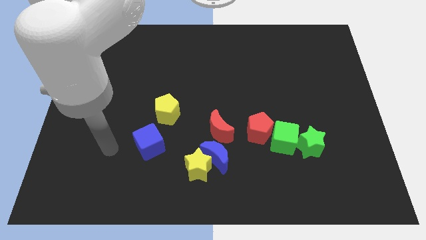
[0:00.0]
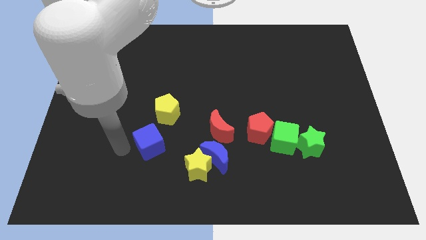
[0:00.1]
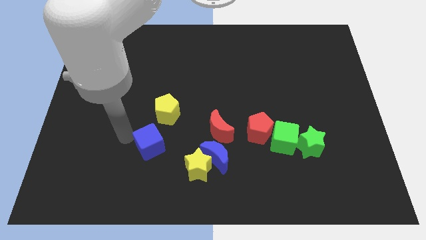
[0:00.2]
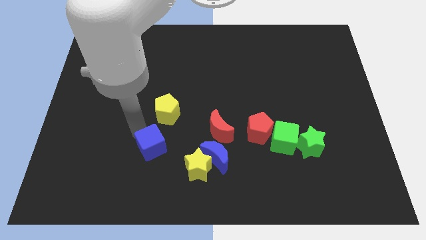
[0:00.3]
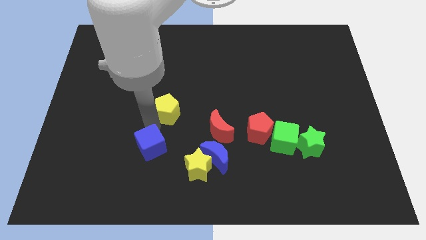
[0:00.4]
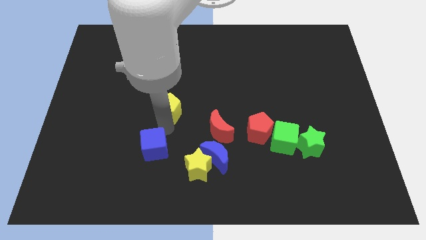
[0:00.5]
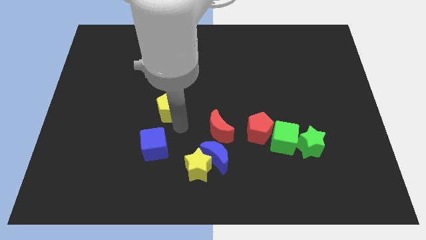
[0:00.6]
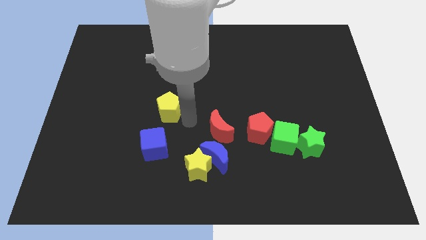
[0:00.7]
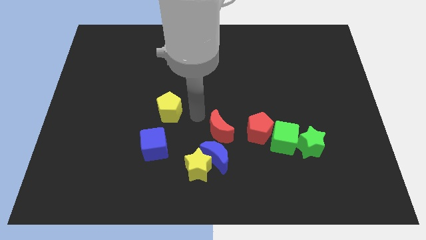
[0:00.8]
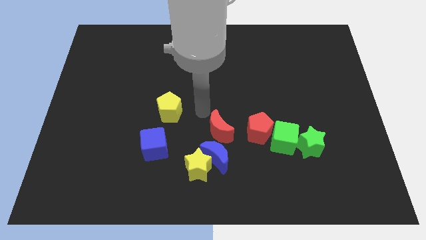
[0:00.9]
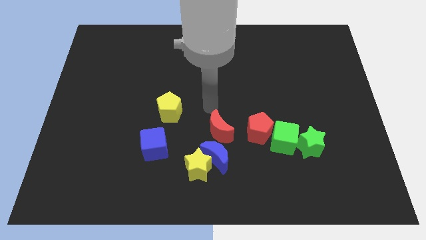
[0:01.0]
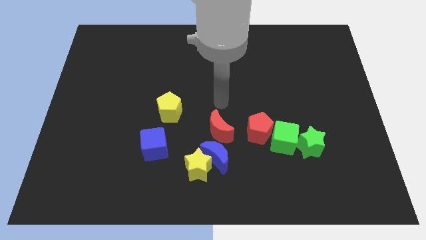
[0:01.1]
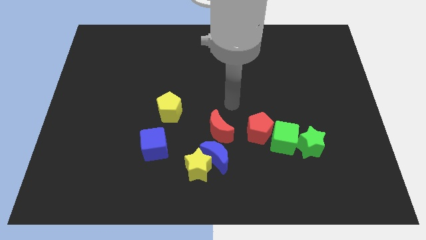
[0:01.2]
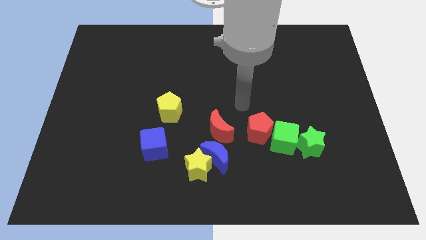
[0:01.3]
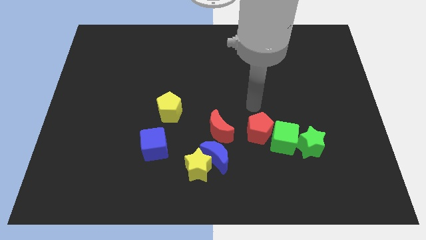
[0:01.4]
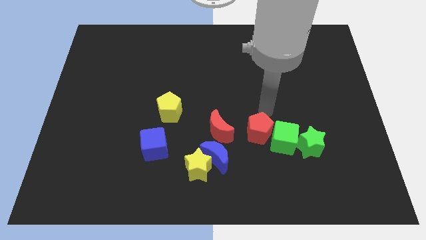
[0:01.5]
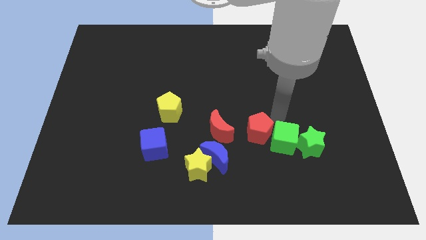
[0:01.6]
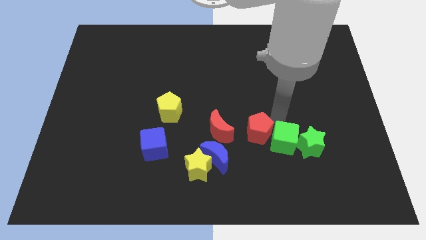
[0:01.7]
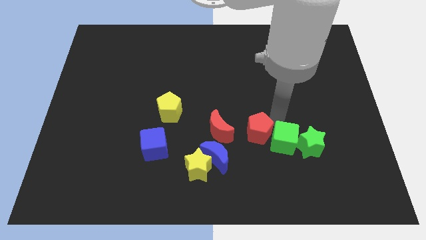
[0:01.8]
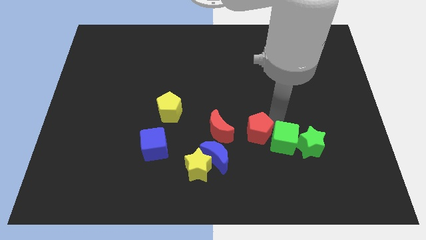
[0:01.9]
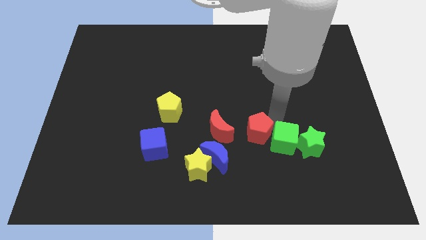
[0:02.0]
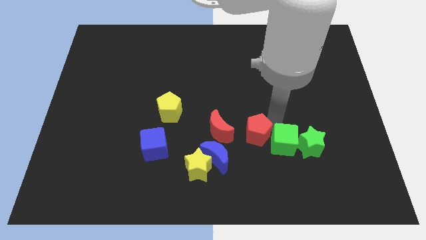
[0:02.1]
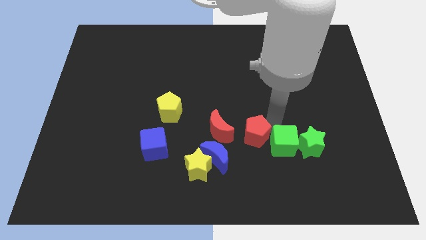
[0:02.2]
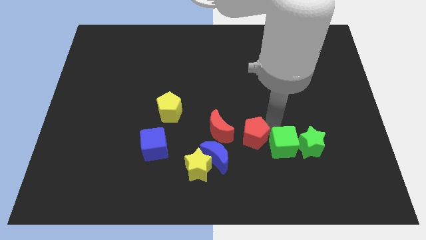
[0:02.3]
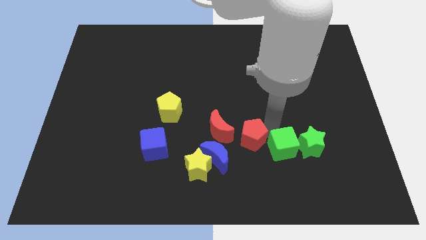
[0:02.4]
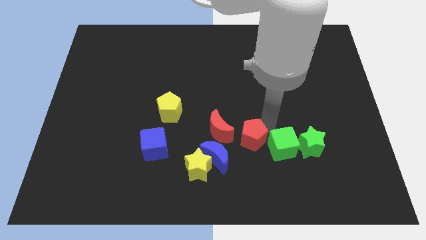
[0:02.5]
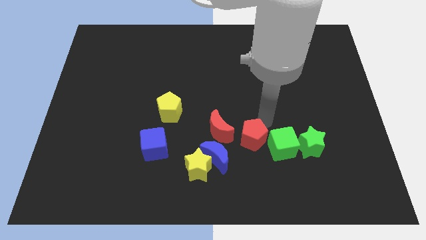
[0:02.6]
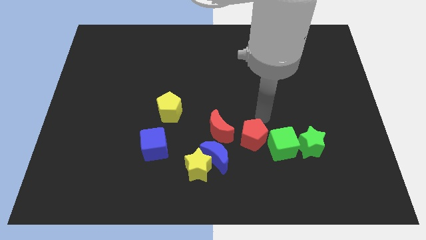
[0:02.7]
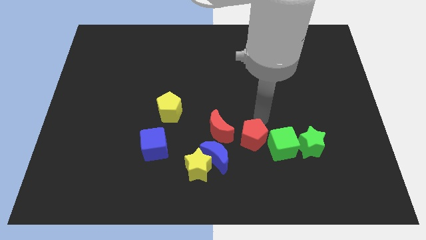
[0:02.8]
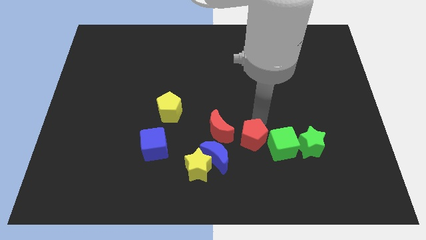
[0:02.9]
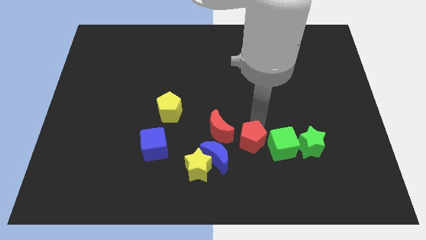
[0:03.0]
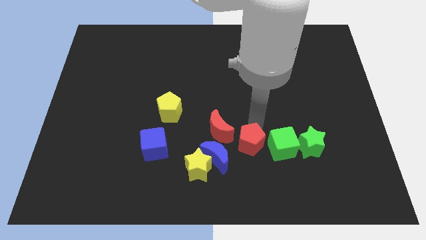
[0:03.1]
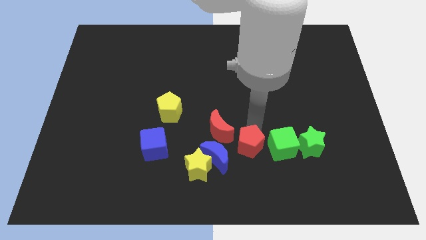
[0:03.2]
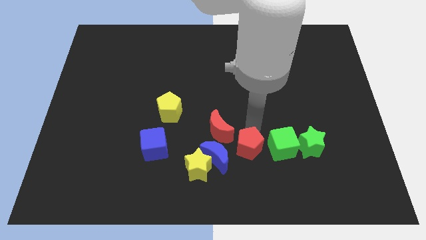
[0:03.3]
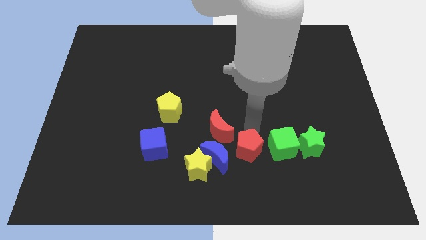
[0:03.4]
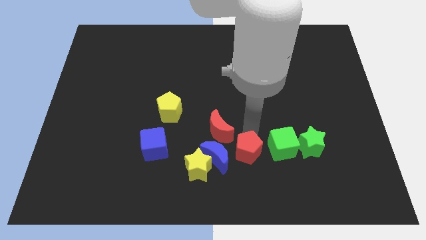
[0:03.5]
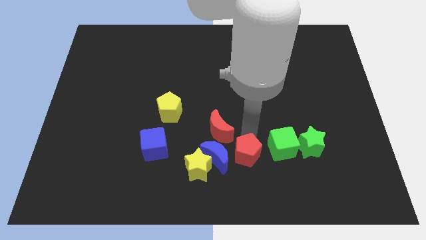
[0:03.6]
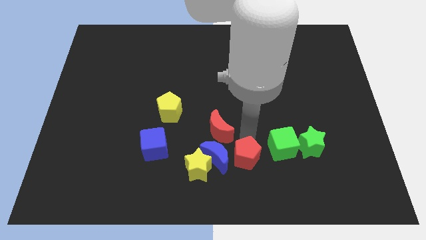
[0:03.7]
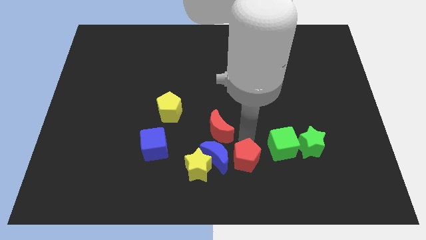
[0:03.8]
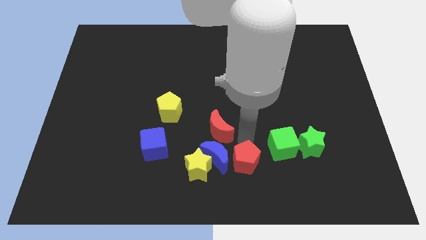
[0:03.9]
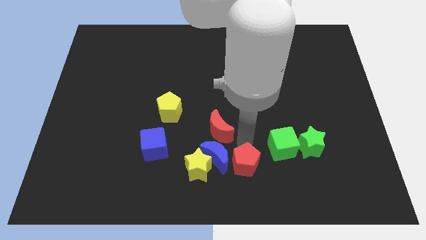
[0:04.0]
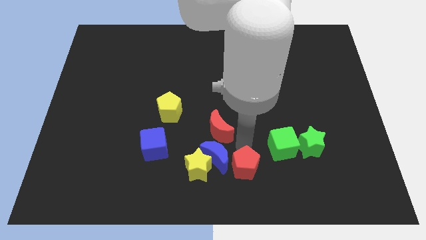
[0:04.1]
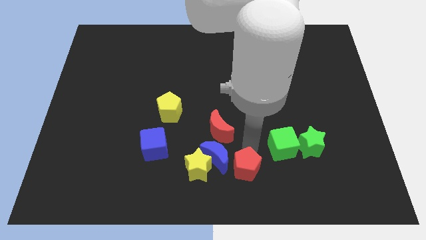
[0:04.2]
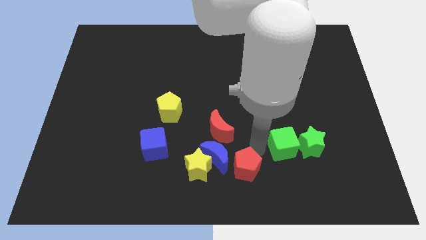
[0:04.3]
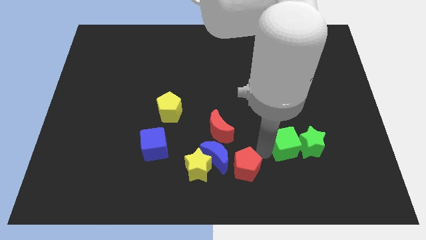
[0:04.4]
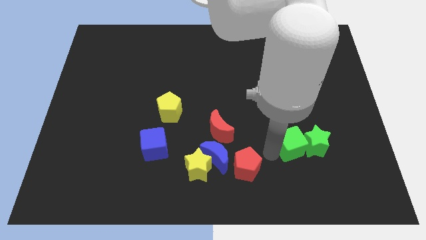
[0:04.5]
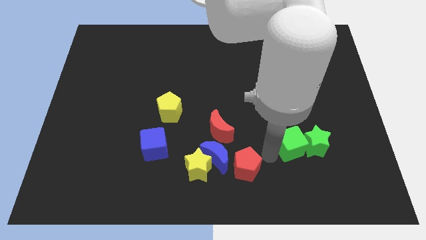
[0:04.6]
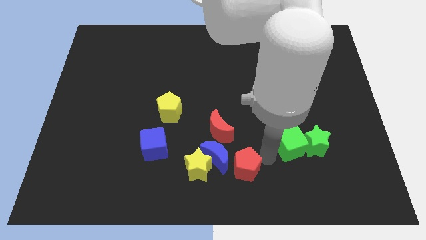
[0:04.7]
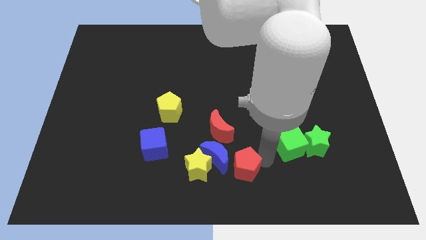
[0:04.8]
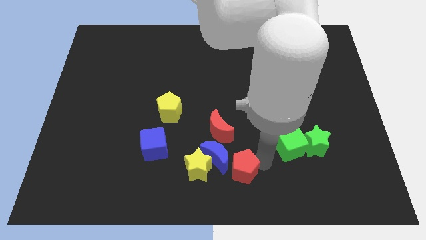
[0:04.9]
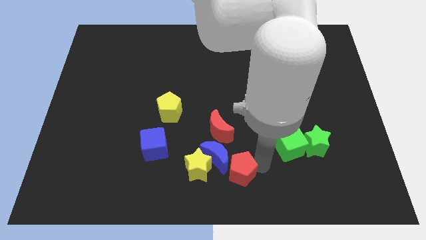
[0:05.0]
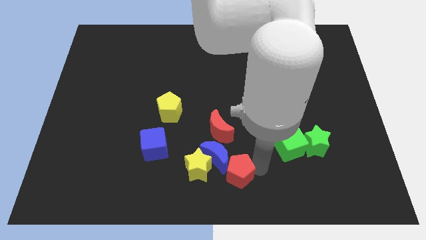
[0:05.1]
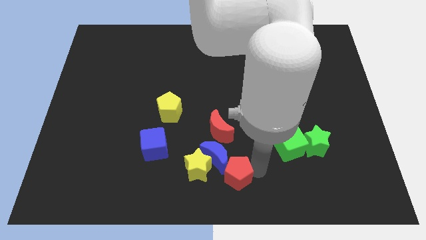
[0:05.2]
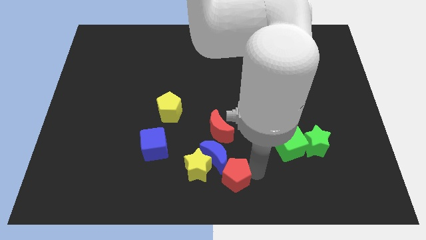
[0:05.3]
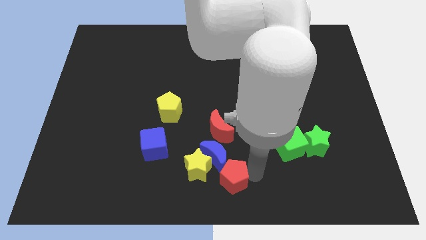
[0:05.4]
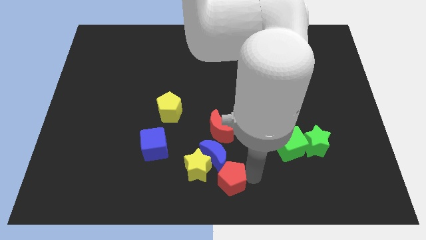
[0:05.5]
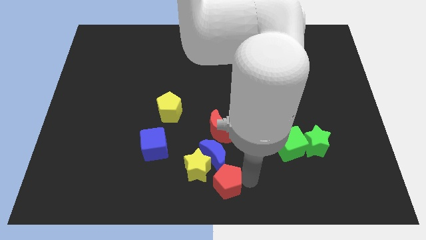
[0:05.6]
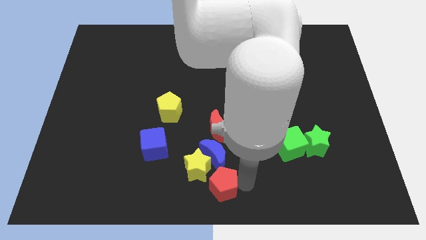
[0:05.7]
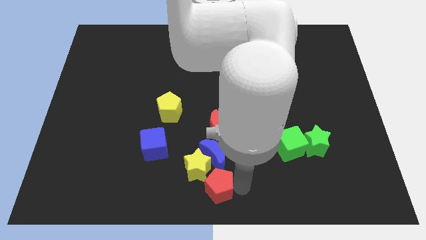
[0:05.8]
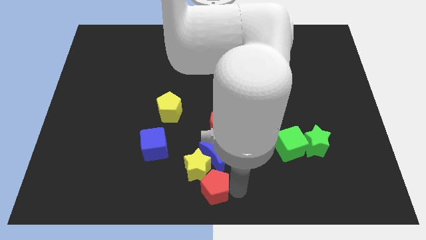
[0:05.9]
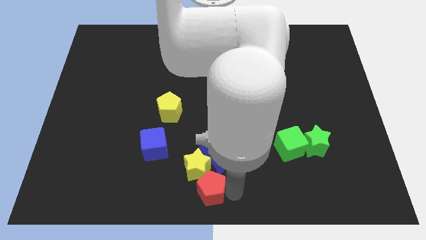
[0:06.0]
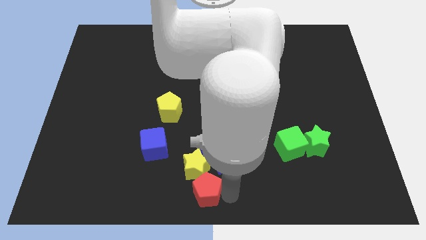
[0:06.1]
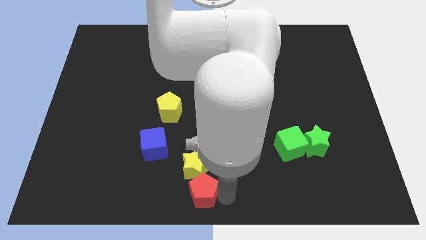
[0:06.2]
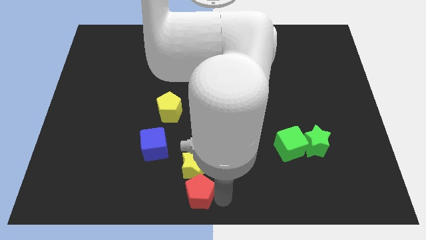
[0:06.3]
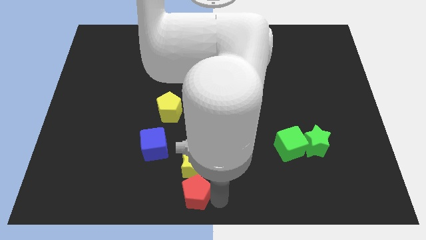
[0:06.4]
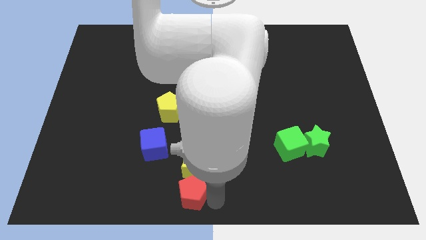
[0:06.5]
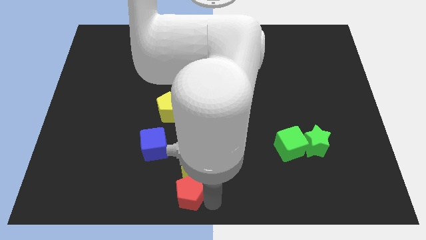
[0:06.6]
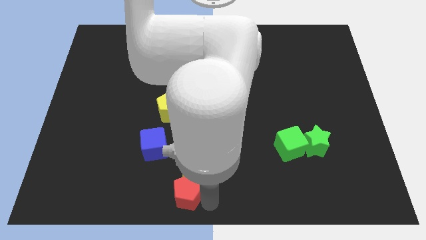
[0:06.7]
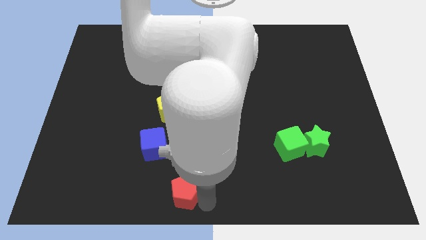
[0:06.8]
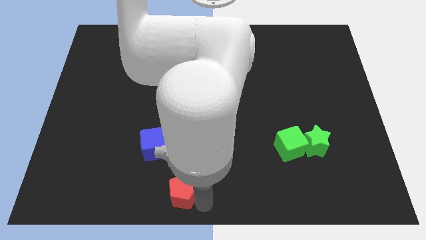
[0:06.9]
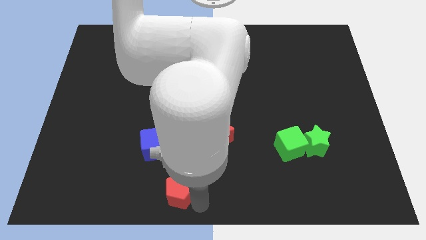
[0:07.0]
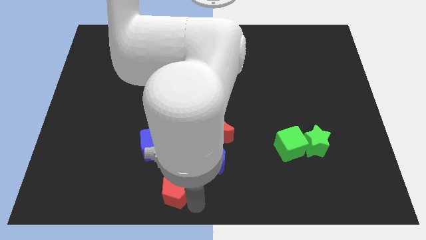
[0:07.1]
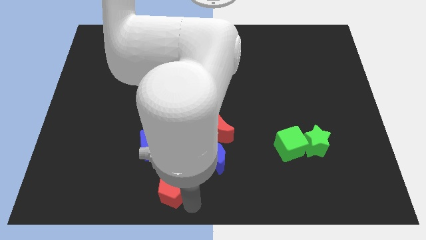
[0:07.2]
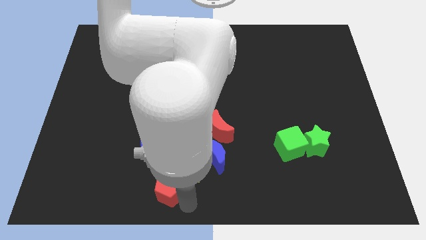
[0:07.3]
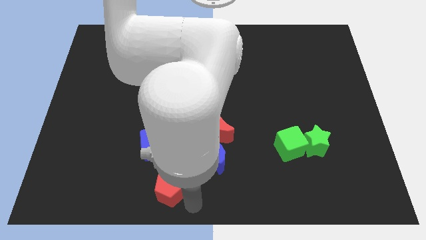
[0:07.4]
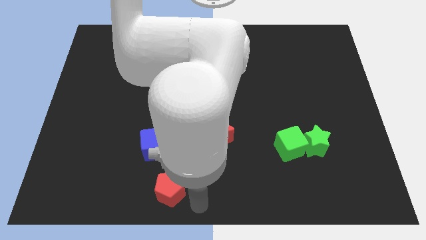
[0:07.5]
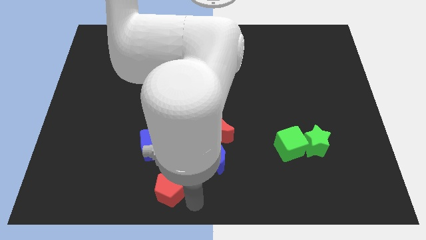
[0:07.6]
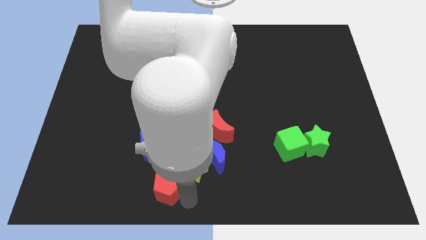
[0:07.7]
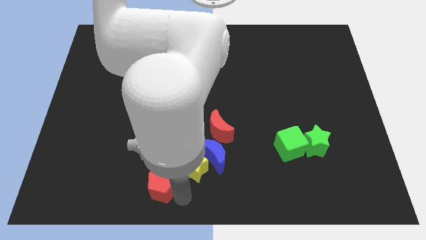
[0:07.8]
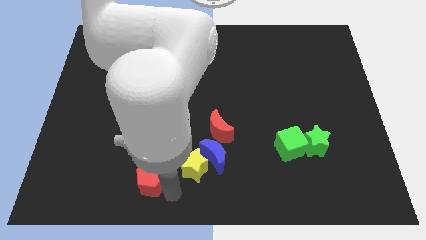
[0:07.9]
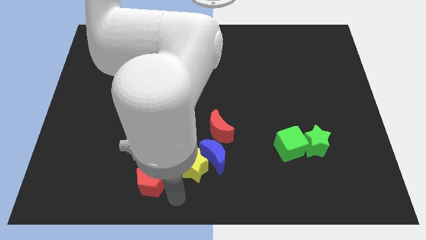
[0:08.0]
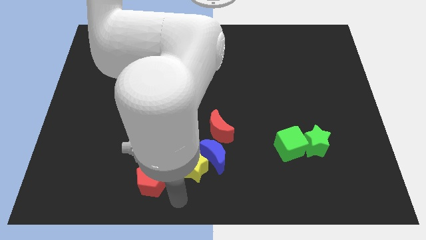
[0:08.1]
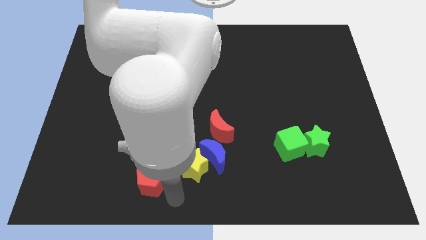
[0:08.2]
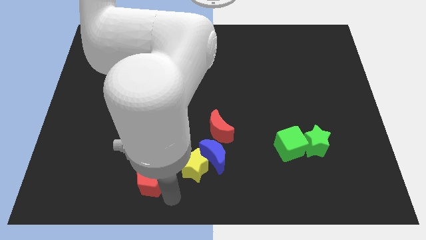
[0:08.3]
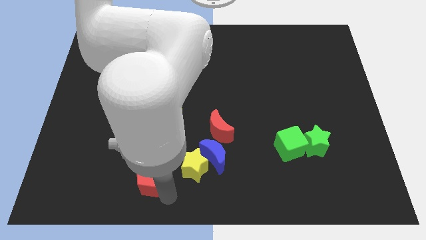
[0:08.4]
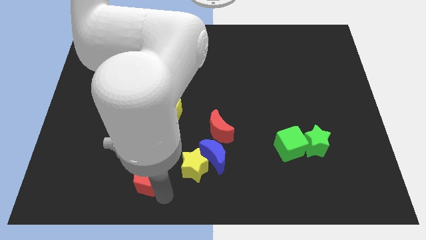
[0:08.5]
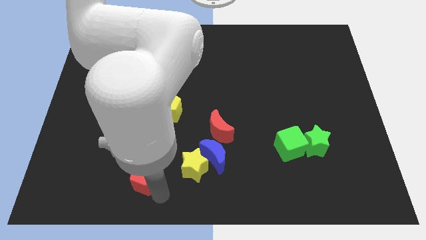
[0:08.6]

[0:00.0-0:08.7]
put the red pentagon diagonally down and to the left of the blue cube
